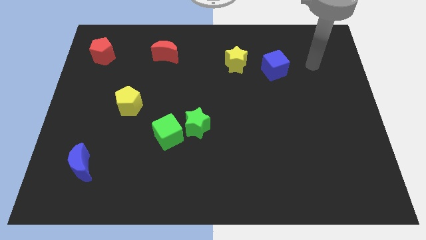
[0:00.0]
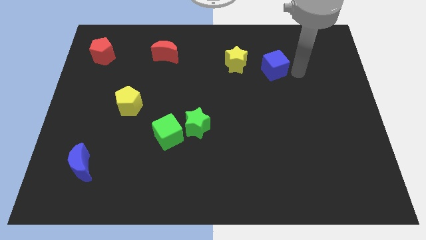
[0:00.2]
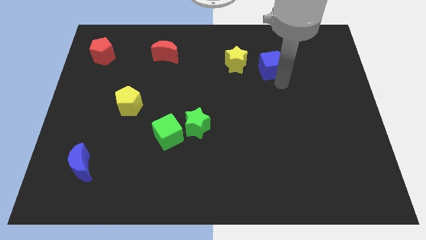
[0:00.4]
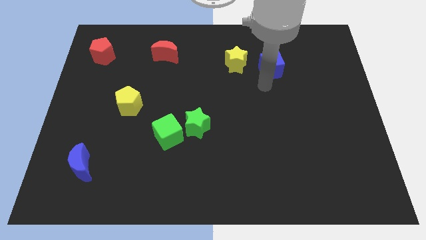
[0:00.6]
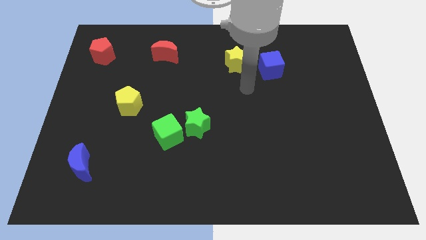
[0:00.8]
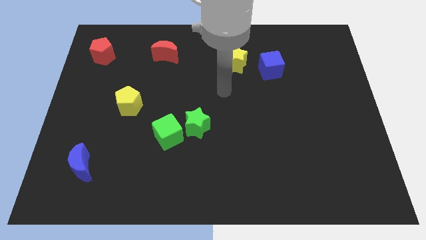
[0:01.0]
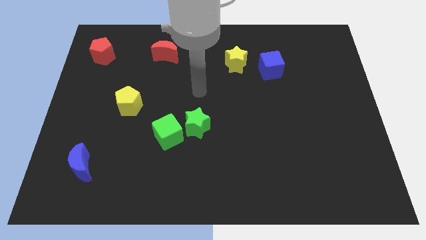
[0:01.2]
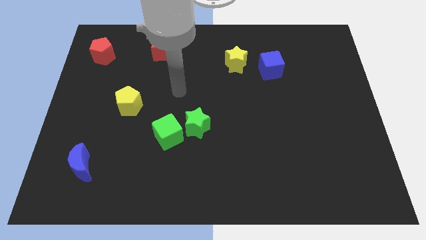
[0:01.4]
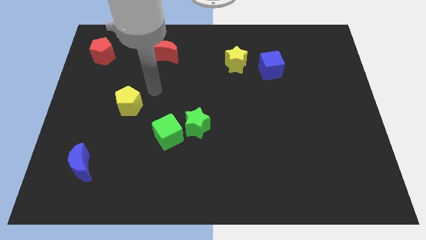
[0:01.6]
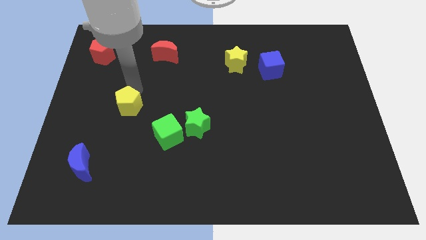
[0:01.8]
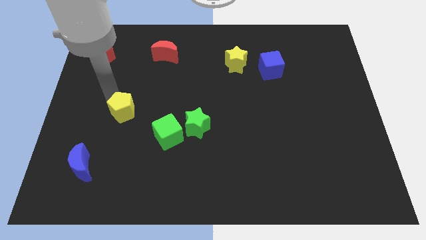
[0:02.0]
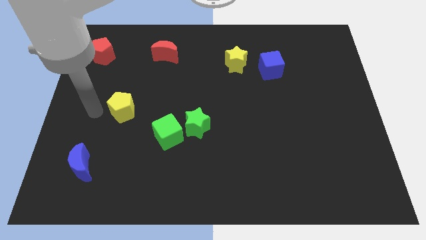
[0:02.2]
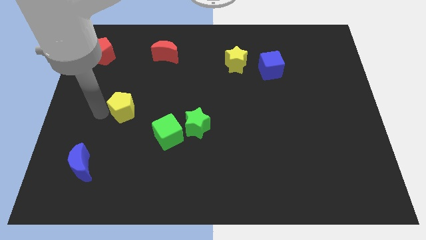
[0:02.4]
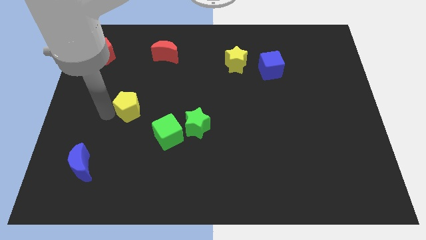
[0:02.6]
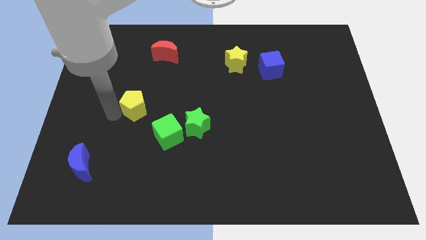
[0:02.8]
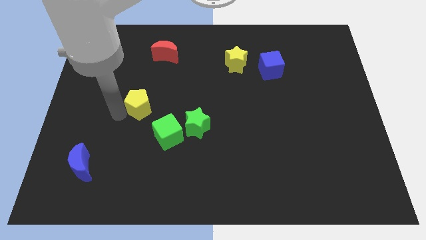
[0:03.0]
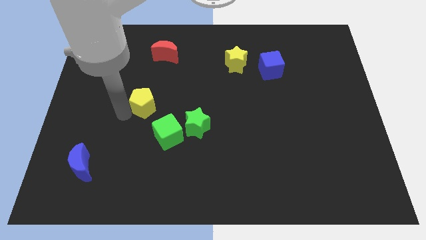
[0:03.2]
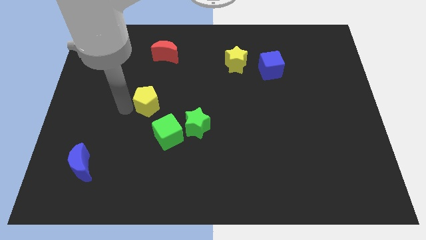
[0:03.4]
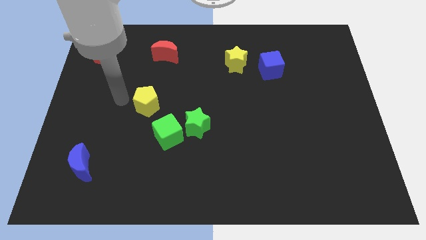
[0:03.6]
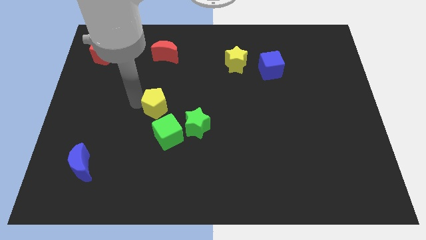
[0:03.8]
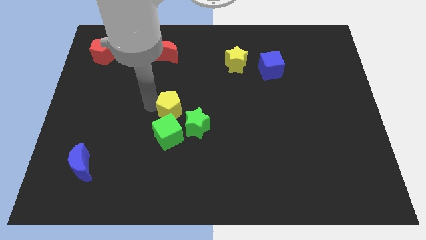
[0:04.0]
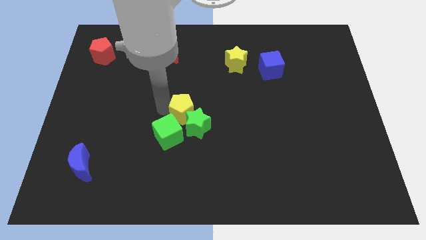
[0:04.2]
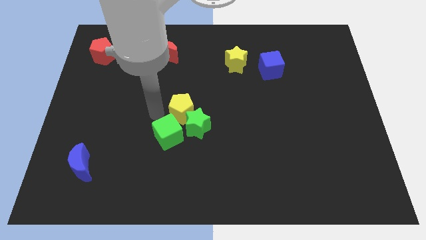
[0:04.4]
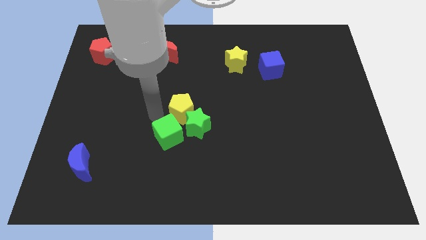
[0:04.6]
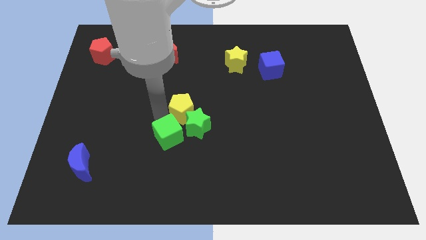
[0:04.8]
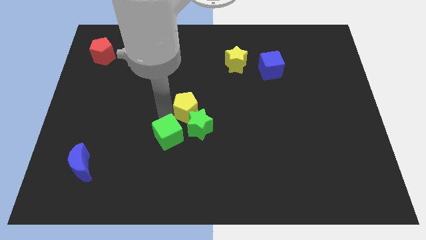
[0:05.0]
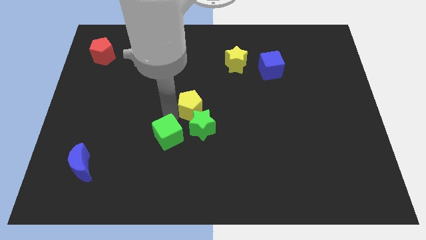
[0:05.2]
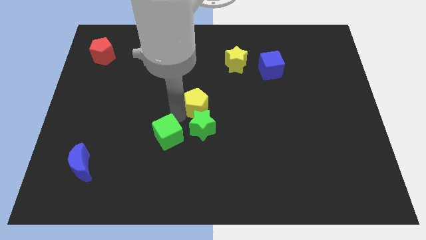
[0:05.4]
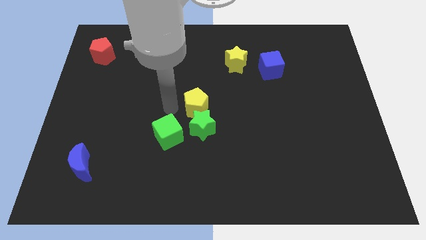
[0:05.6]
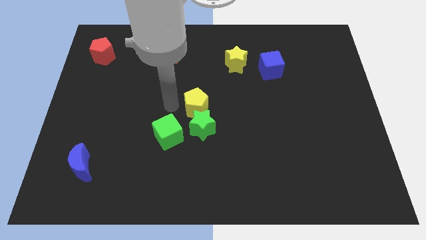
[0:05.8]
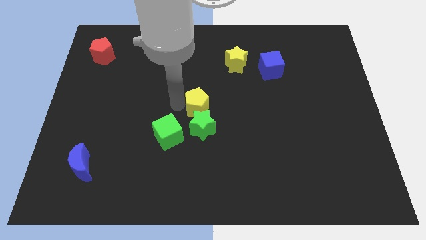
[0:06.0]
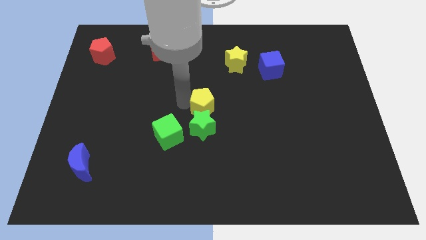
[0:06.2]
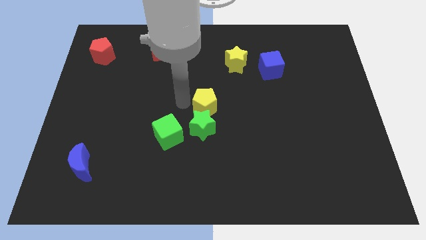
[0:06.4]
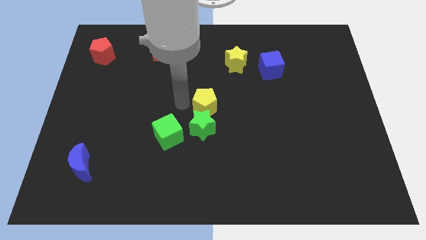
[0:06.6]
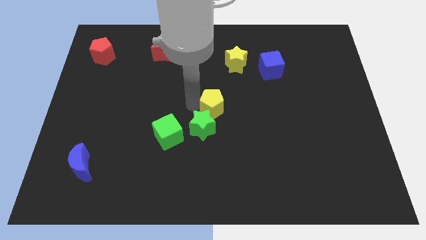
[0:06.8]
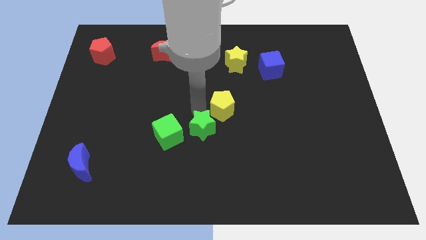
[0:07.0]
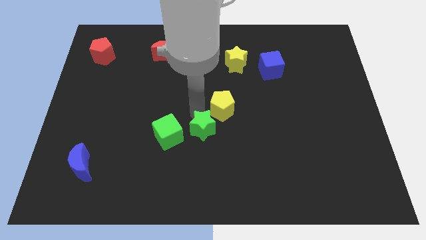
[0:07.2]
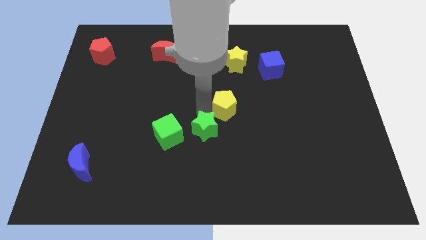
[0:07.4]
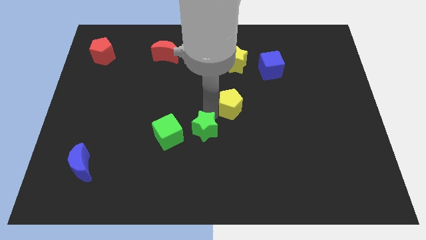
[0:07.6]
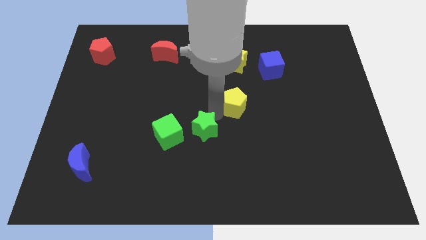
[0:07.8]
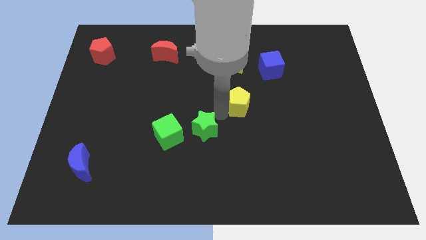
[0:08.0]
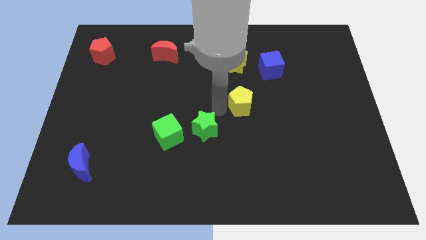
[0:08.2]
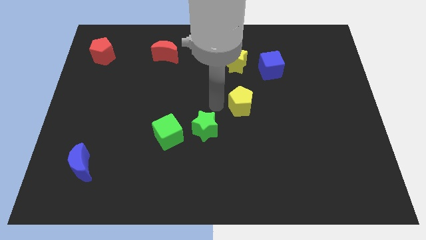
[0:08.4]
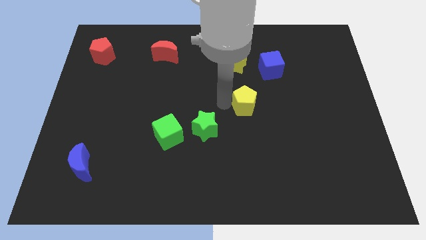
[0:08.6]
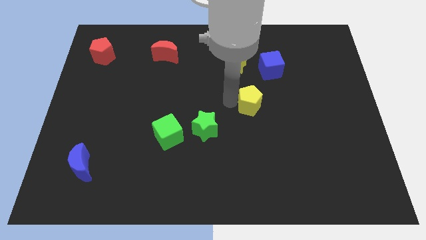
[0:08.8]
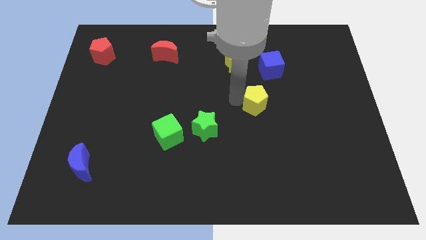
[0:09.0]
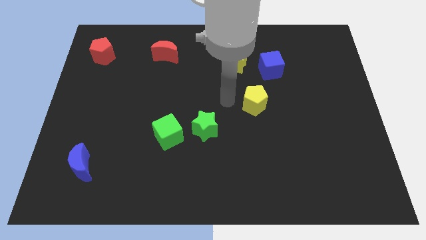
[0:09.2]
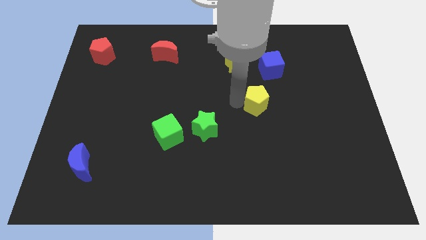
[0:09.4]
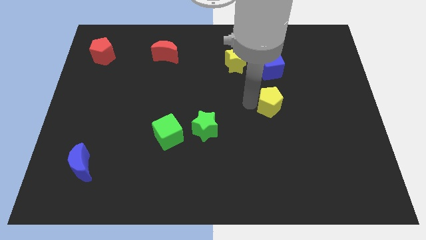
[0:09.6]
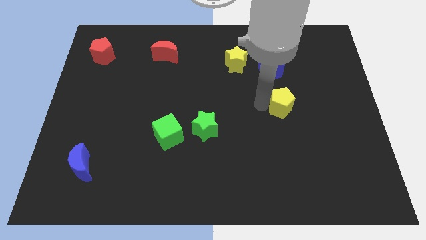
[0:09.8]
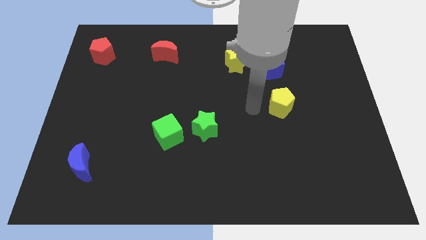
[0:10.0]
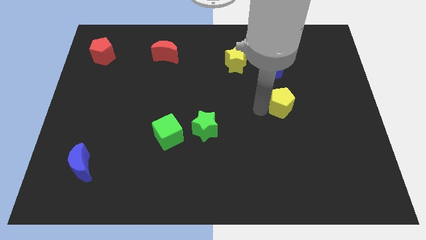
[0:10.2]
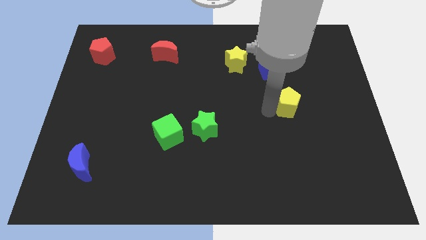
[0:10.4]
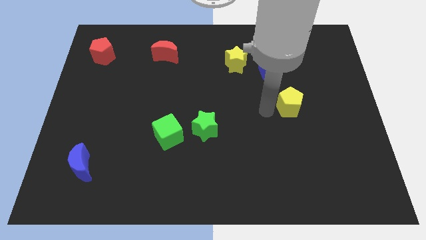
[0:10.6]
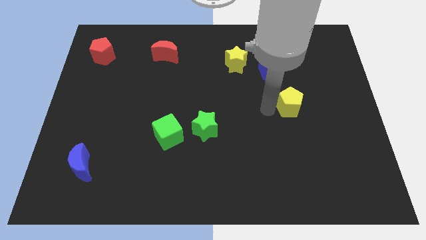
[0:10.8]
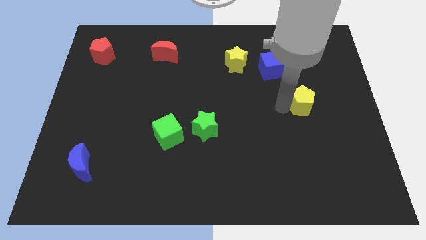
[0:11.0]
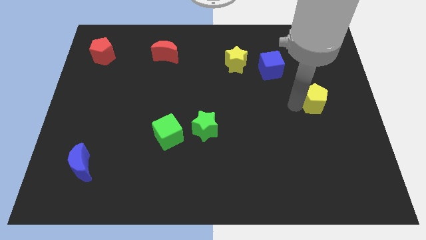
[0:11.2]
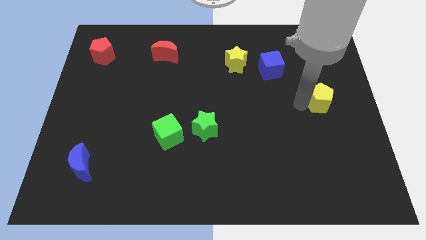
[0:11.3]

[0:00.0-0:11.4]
push the yellow pentagon to the center right

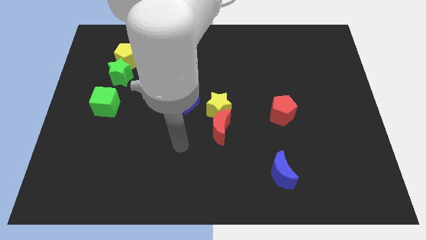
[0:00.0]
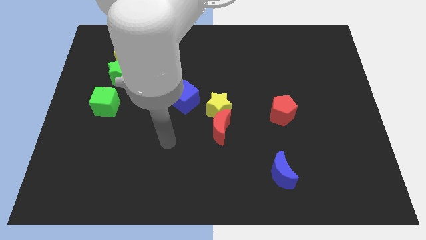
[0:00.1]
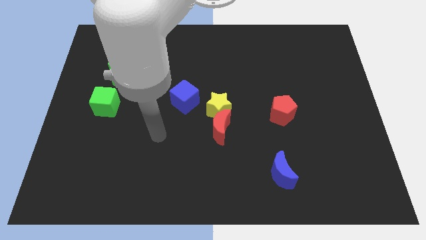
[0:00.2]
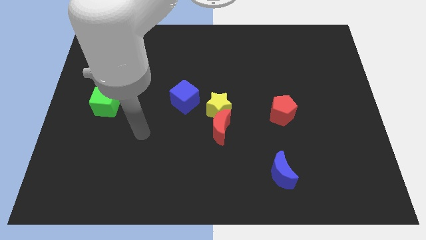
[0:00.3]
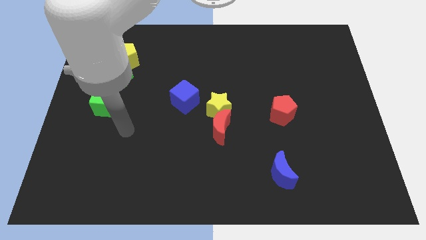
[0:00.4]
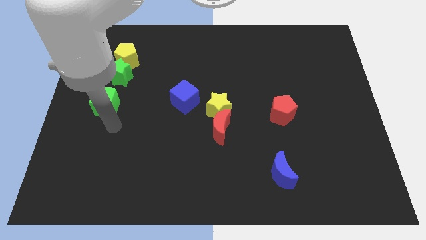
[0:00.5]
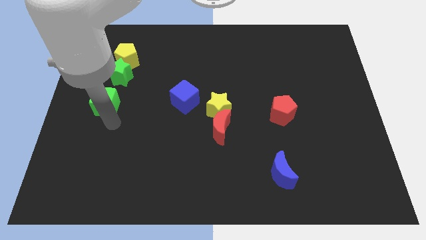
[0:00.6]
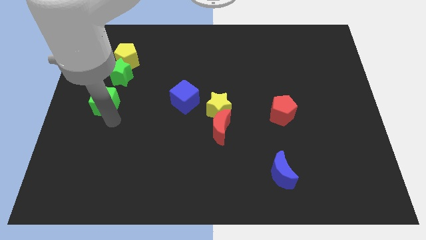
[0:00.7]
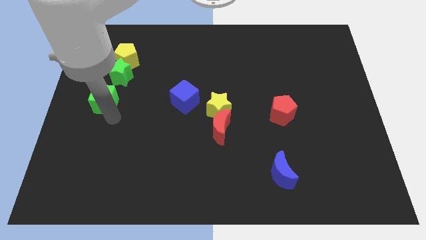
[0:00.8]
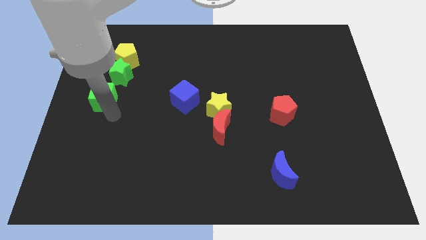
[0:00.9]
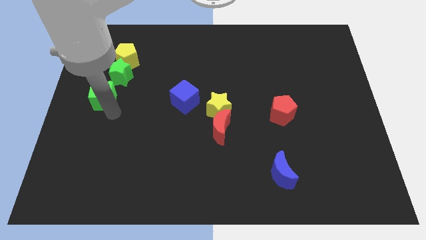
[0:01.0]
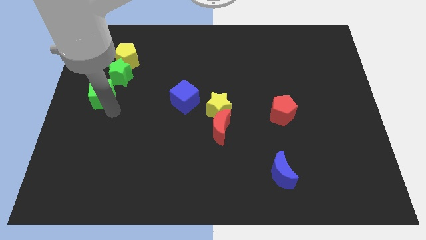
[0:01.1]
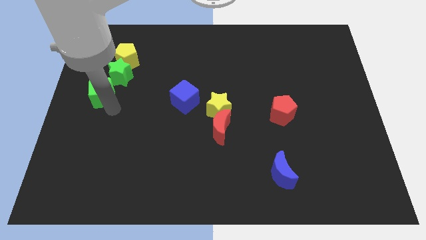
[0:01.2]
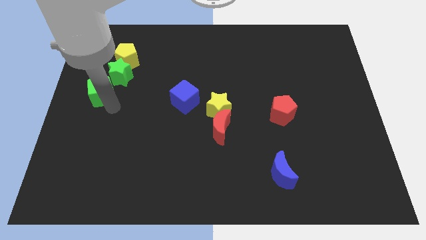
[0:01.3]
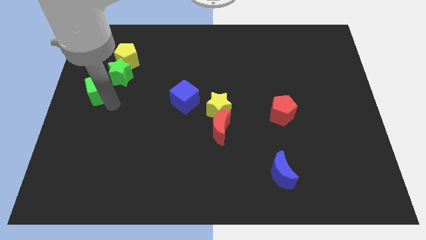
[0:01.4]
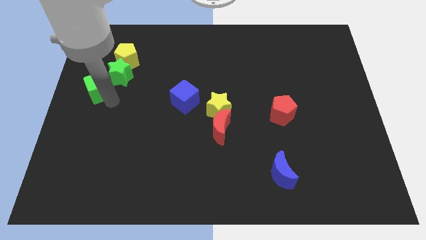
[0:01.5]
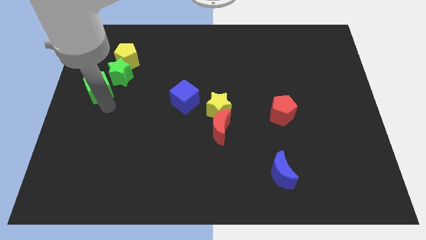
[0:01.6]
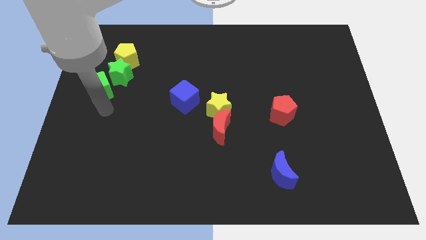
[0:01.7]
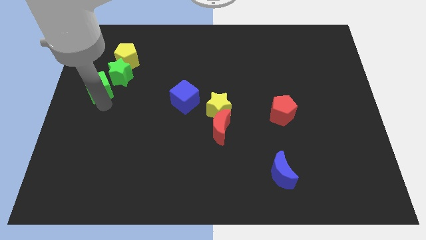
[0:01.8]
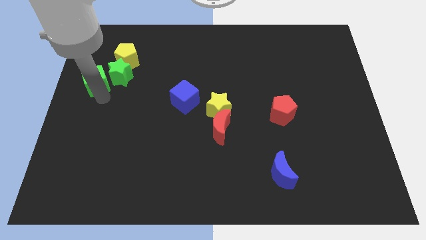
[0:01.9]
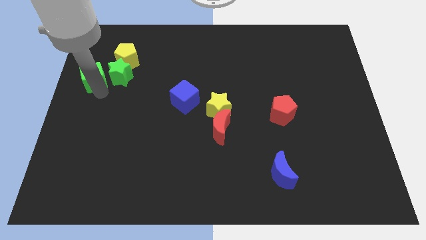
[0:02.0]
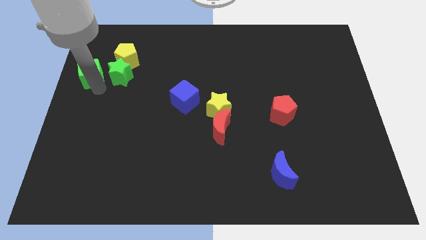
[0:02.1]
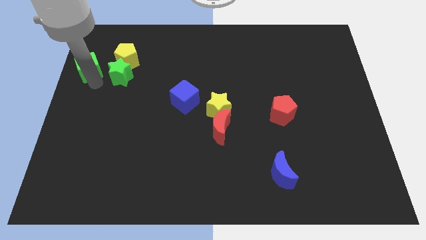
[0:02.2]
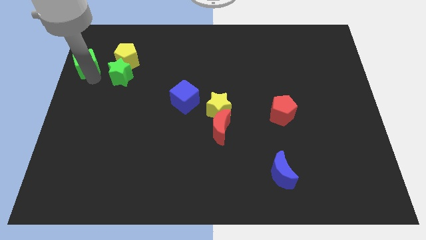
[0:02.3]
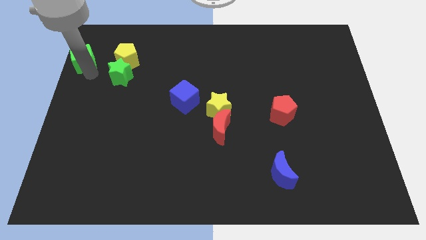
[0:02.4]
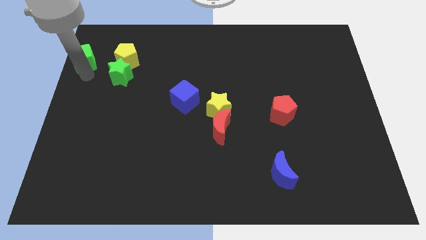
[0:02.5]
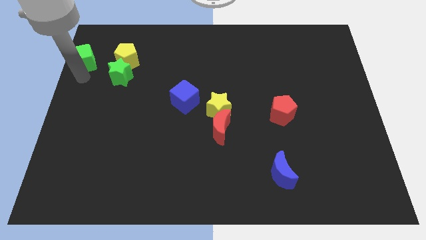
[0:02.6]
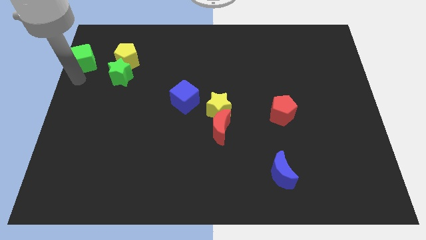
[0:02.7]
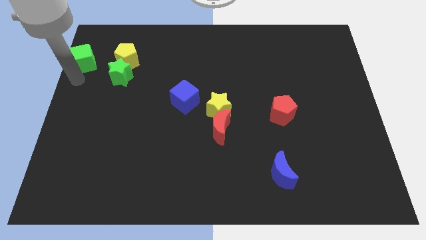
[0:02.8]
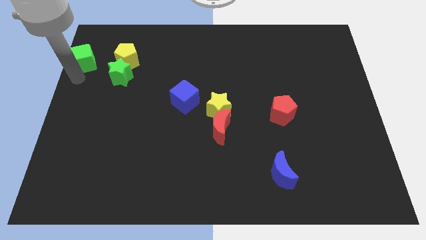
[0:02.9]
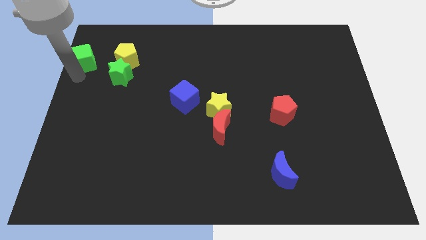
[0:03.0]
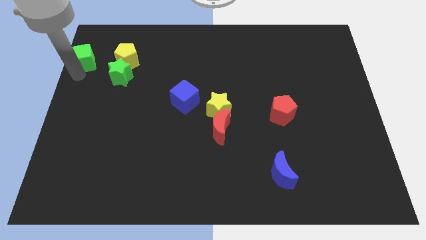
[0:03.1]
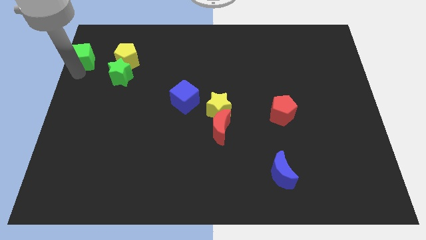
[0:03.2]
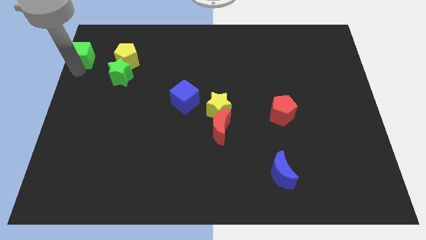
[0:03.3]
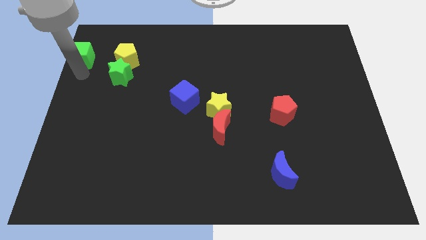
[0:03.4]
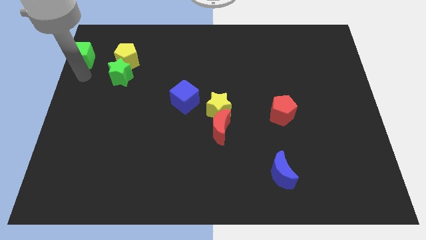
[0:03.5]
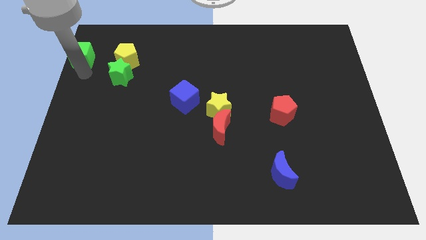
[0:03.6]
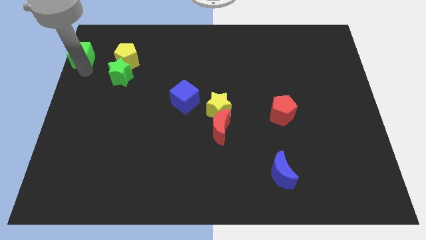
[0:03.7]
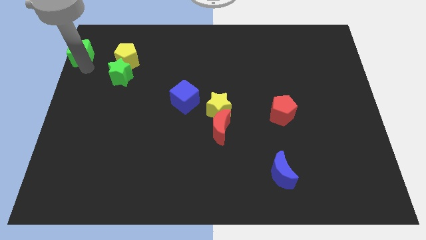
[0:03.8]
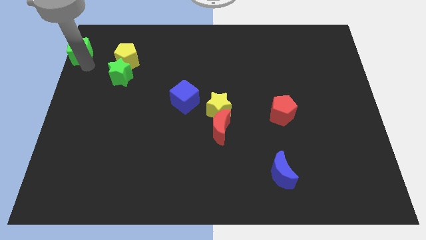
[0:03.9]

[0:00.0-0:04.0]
push the green cube to the top left
